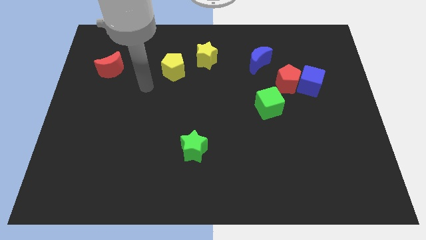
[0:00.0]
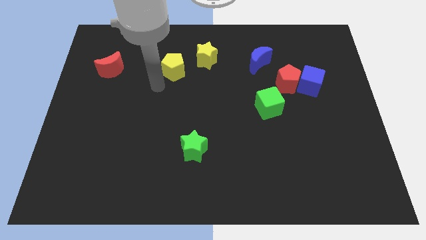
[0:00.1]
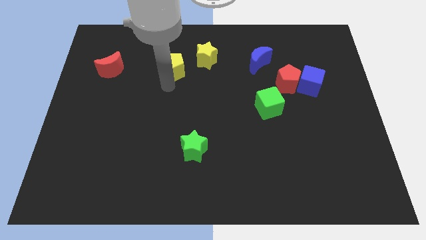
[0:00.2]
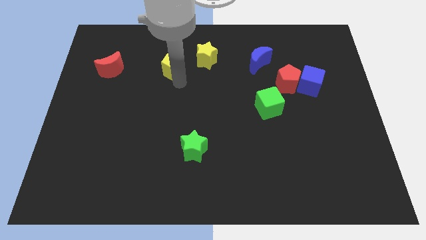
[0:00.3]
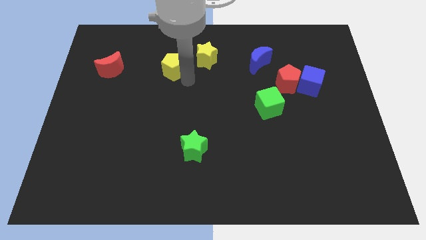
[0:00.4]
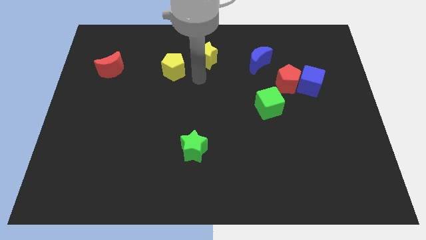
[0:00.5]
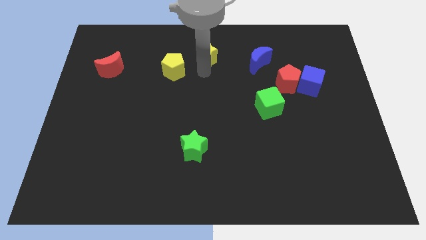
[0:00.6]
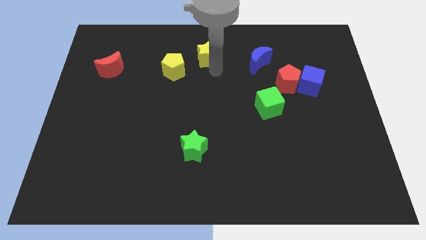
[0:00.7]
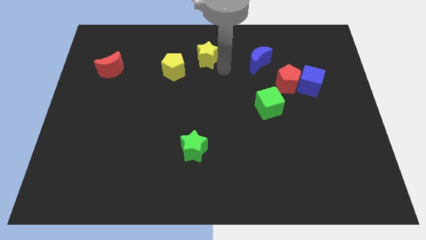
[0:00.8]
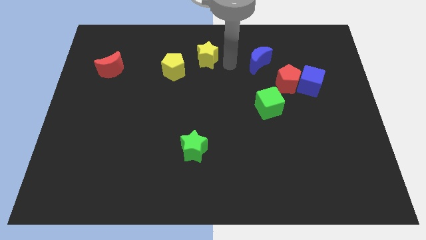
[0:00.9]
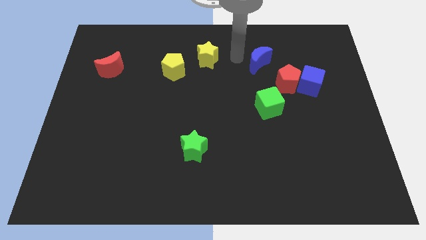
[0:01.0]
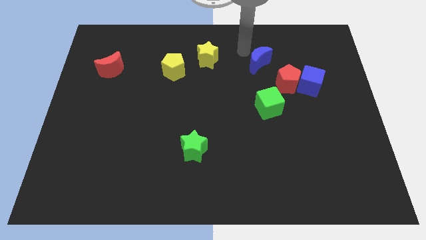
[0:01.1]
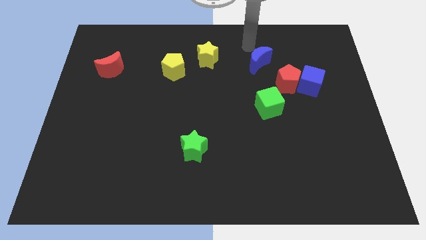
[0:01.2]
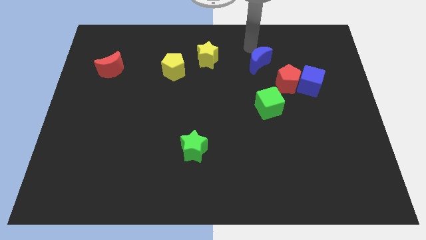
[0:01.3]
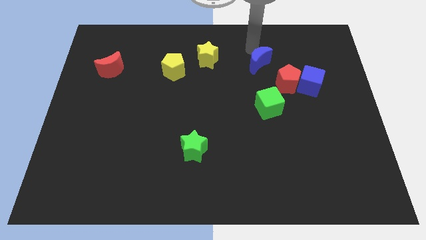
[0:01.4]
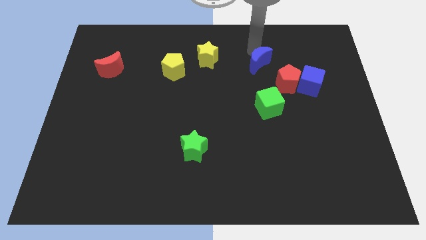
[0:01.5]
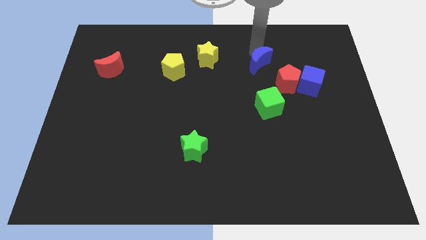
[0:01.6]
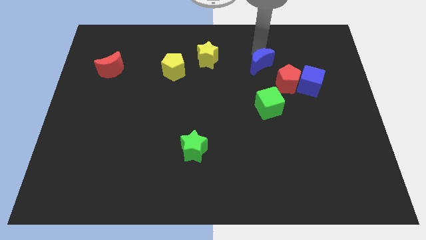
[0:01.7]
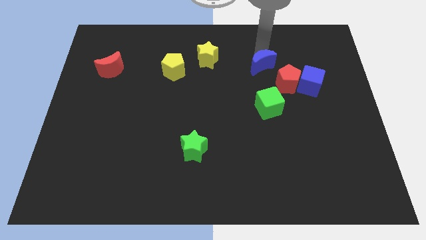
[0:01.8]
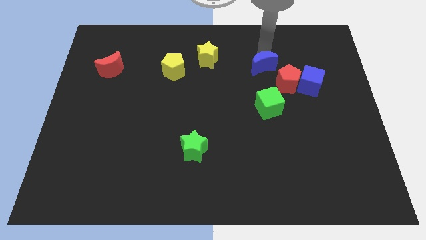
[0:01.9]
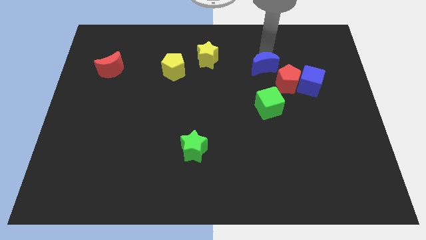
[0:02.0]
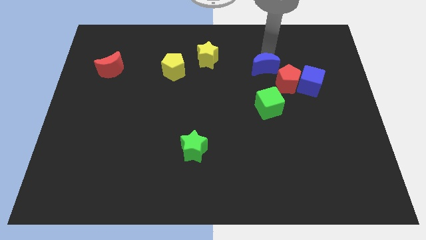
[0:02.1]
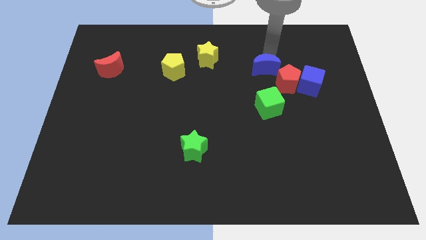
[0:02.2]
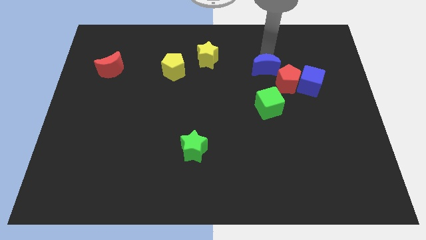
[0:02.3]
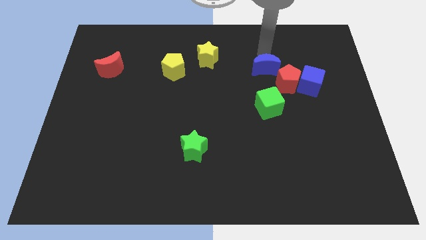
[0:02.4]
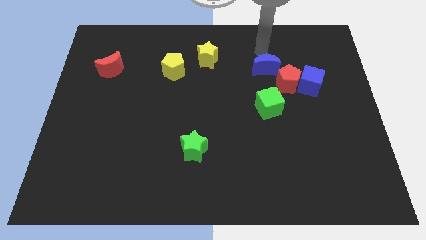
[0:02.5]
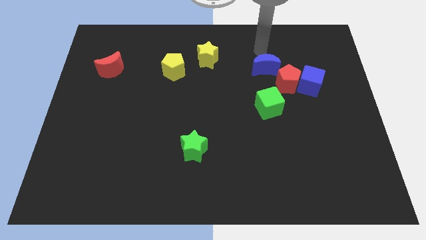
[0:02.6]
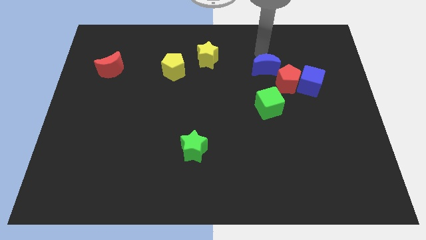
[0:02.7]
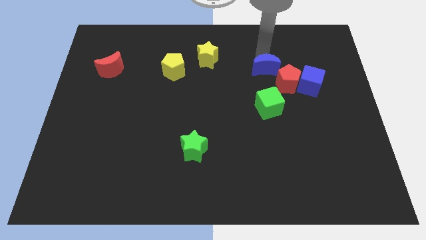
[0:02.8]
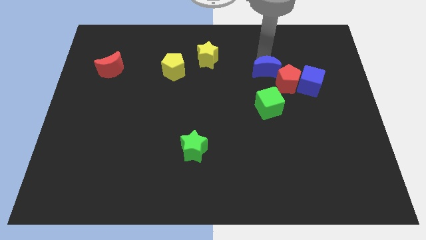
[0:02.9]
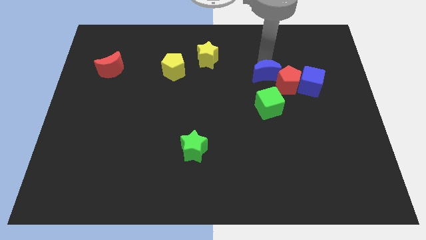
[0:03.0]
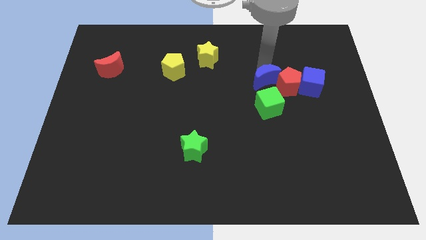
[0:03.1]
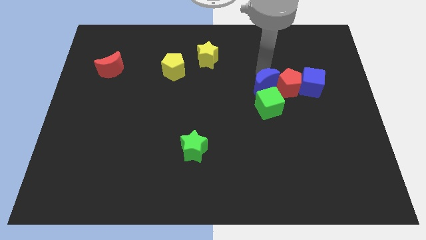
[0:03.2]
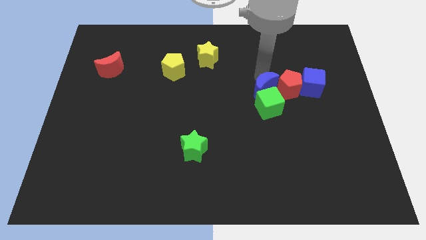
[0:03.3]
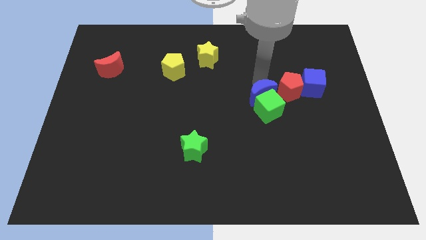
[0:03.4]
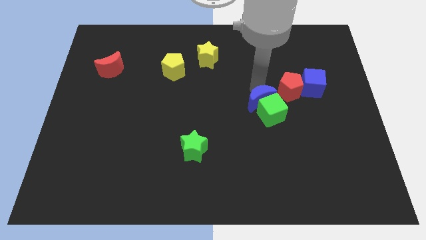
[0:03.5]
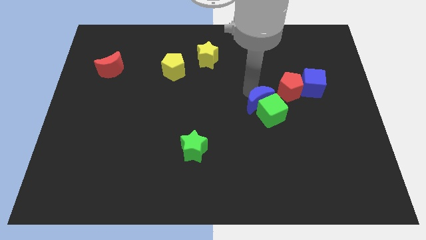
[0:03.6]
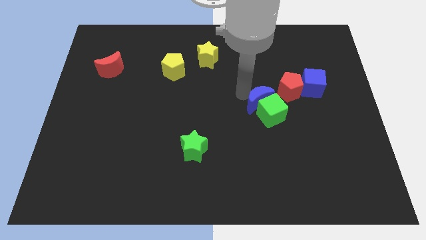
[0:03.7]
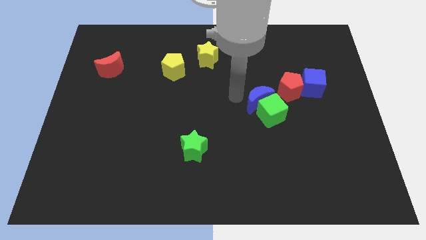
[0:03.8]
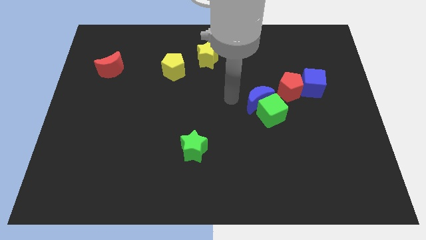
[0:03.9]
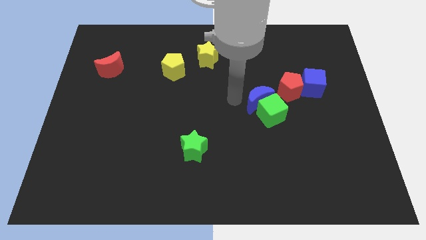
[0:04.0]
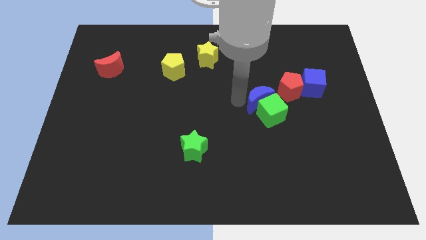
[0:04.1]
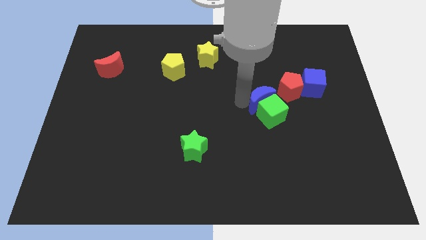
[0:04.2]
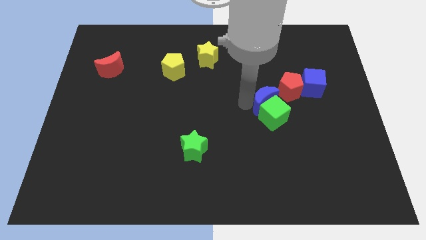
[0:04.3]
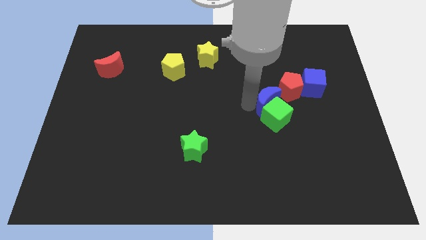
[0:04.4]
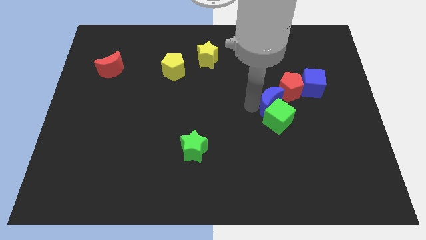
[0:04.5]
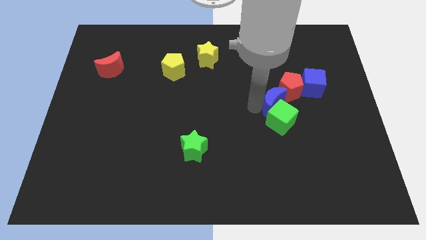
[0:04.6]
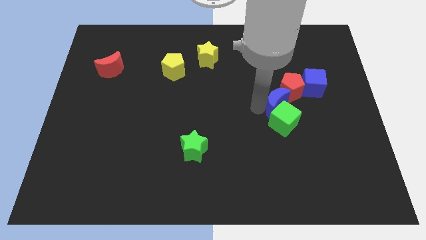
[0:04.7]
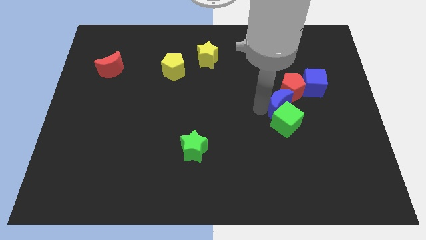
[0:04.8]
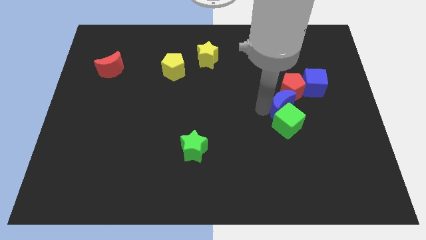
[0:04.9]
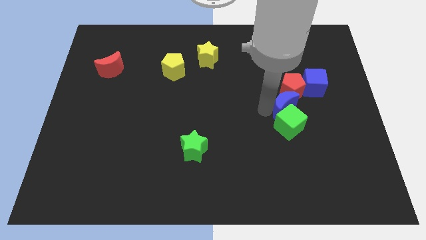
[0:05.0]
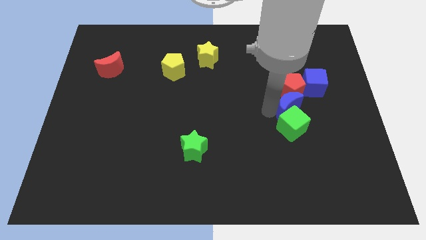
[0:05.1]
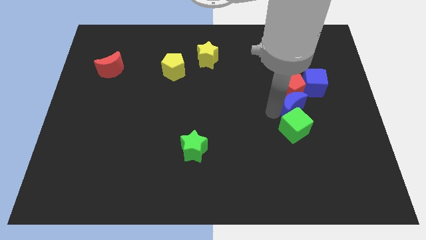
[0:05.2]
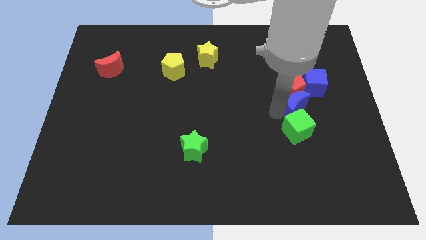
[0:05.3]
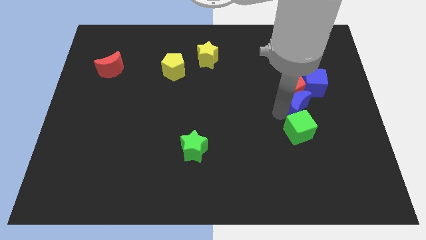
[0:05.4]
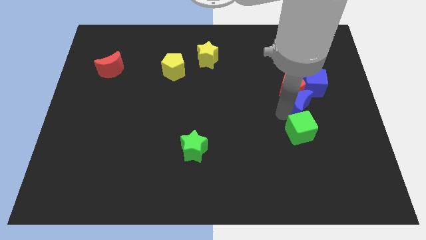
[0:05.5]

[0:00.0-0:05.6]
push the blue moon to the bottom of the blue cube

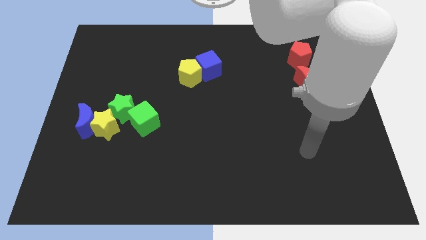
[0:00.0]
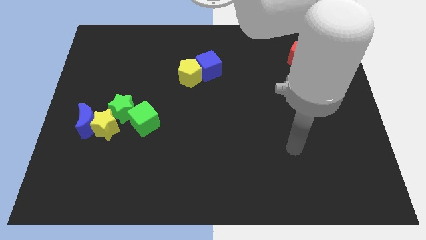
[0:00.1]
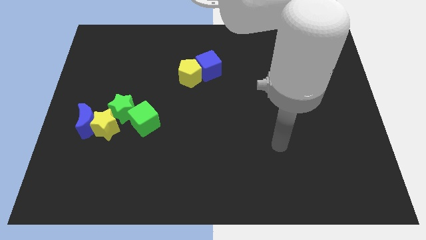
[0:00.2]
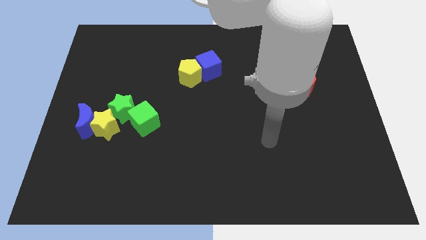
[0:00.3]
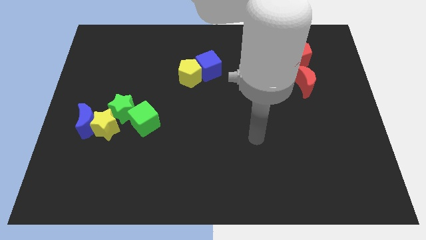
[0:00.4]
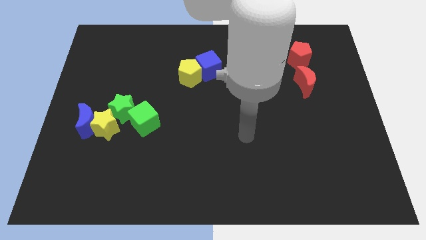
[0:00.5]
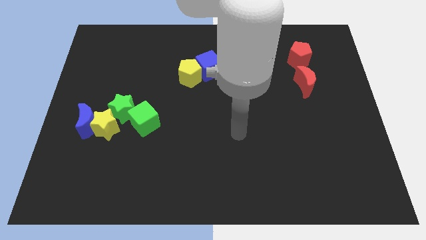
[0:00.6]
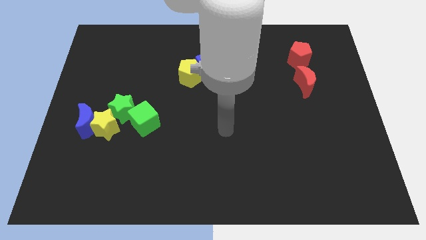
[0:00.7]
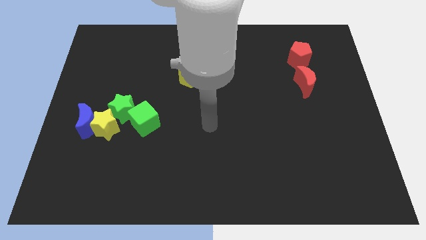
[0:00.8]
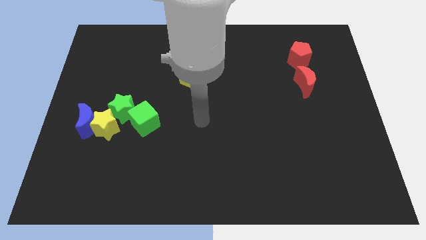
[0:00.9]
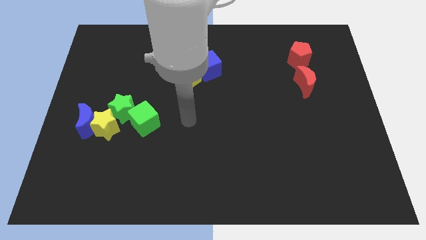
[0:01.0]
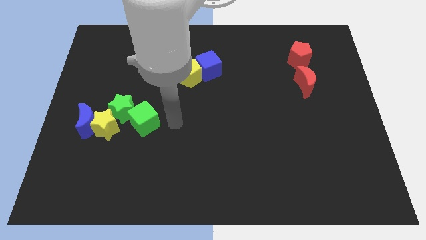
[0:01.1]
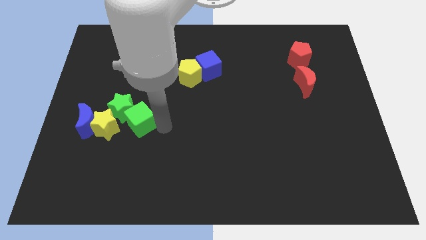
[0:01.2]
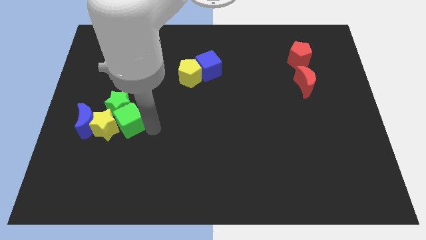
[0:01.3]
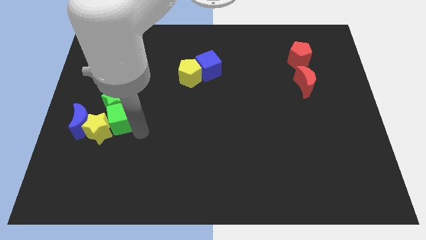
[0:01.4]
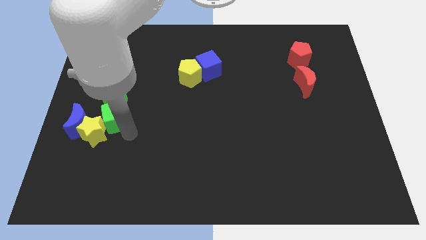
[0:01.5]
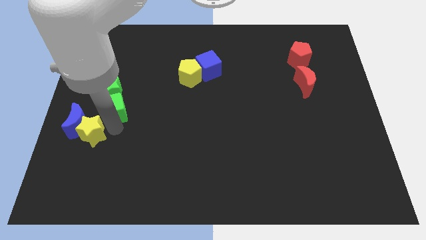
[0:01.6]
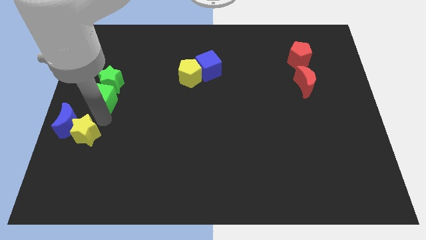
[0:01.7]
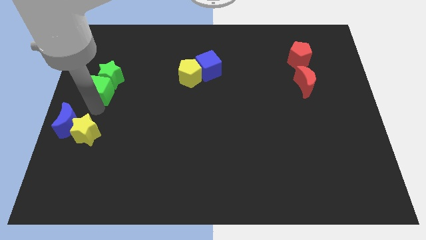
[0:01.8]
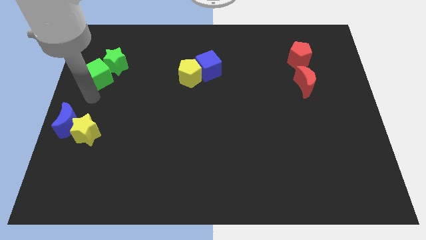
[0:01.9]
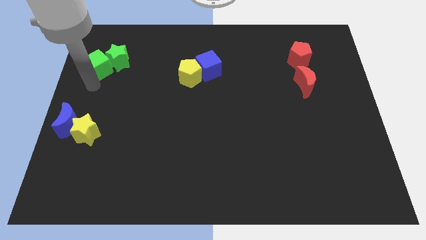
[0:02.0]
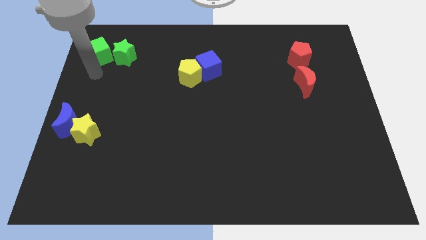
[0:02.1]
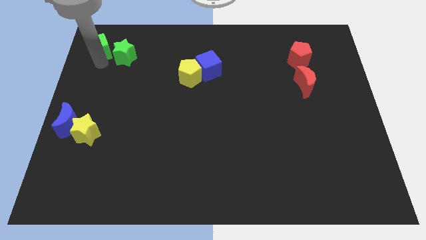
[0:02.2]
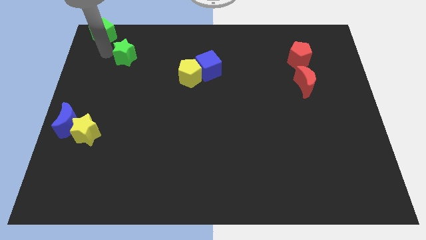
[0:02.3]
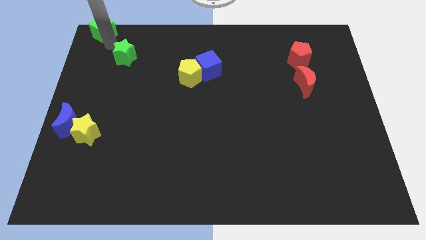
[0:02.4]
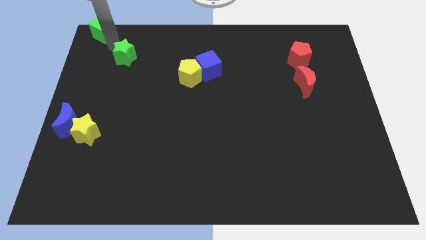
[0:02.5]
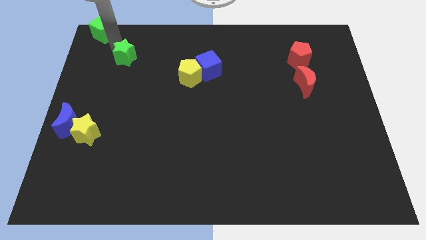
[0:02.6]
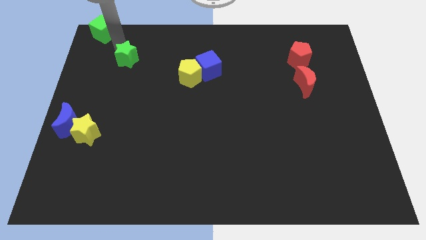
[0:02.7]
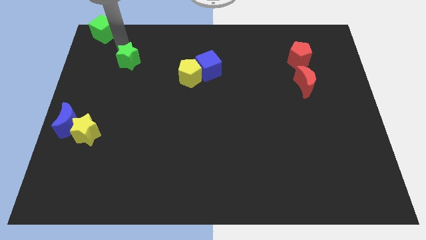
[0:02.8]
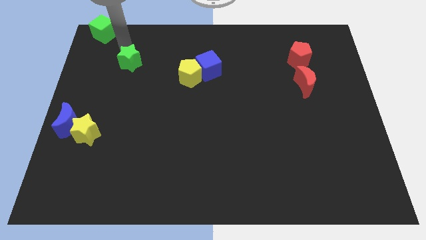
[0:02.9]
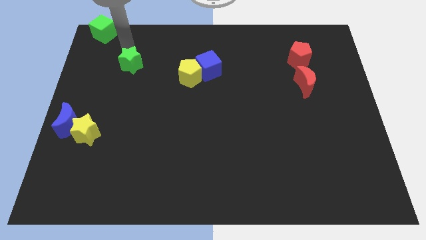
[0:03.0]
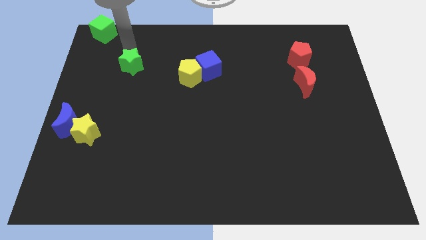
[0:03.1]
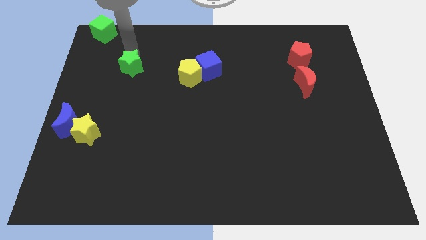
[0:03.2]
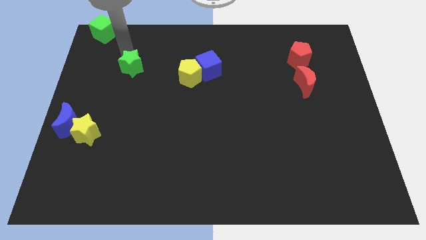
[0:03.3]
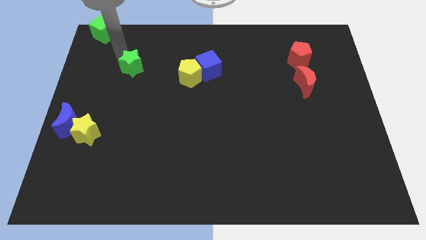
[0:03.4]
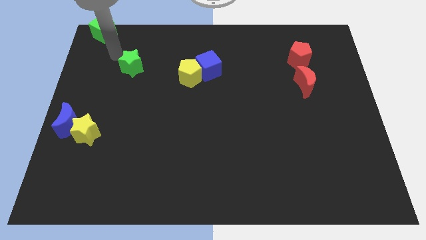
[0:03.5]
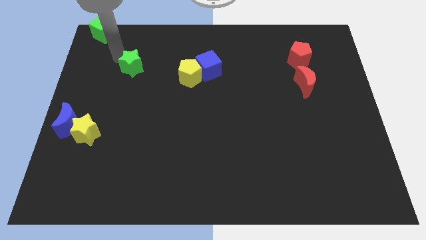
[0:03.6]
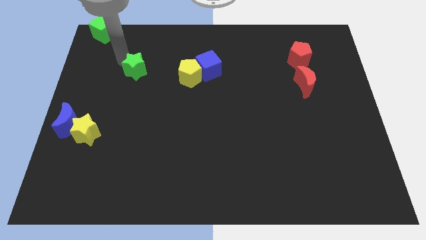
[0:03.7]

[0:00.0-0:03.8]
move the green star to the left side of the yellow pentagon
